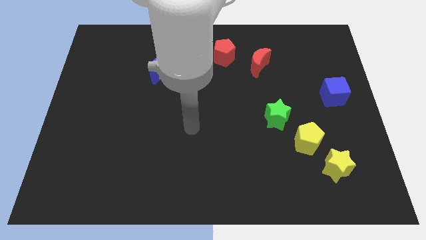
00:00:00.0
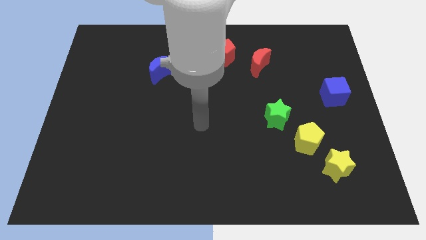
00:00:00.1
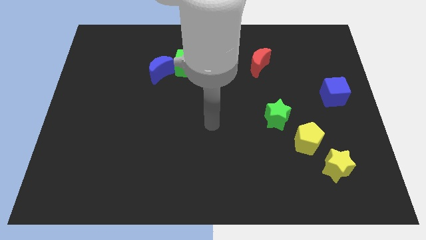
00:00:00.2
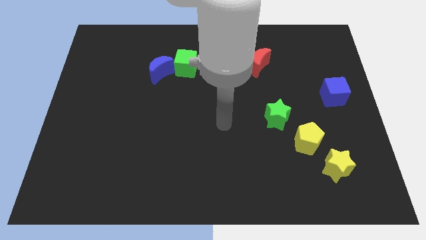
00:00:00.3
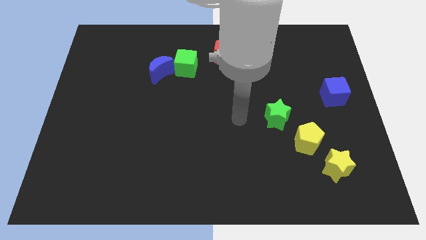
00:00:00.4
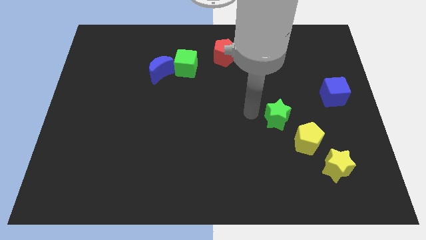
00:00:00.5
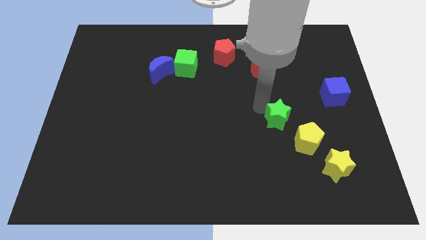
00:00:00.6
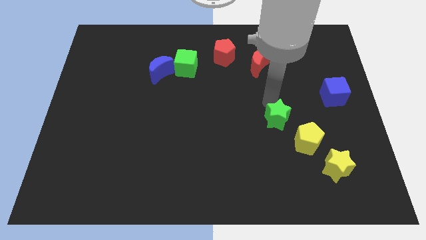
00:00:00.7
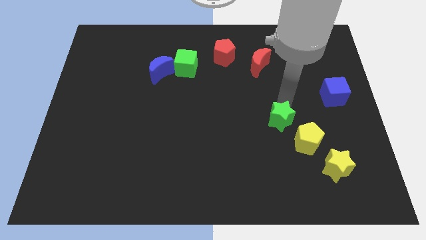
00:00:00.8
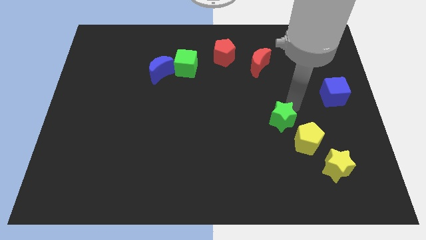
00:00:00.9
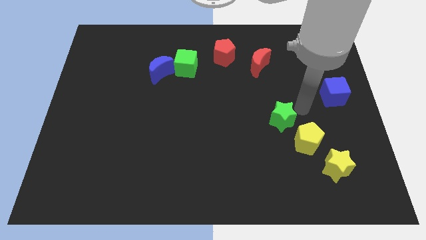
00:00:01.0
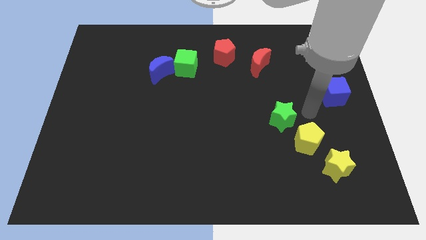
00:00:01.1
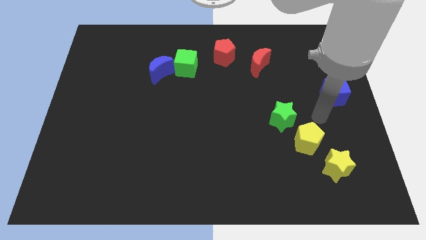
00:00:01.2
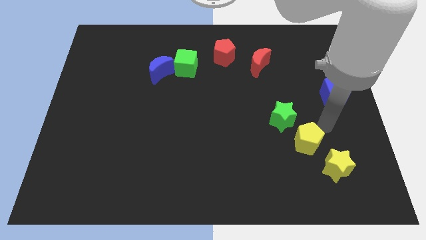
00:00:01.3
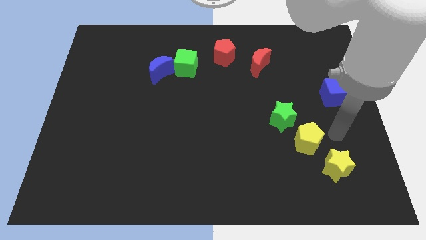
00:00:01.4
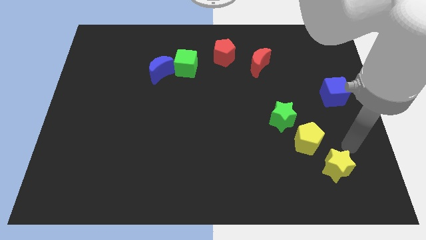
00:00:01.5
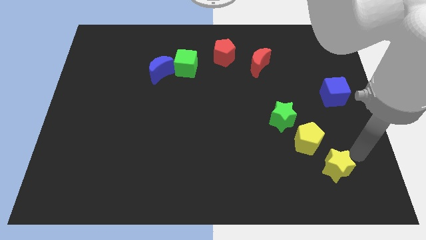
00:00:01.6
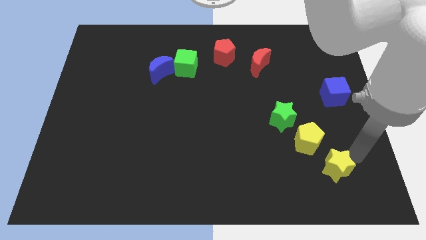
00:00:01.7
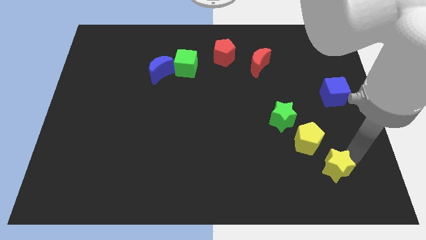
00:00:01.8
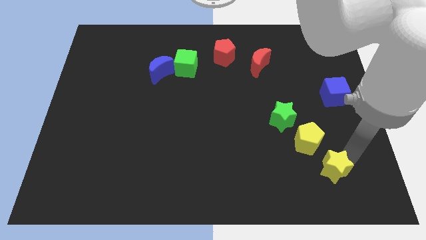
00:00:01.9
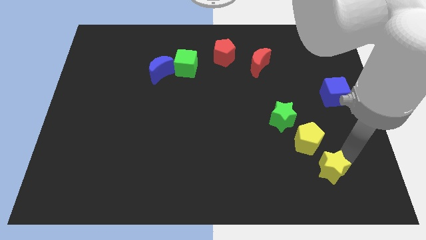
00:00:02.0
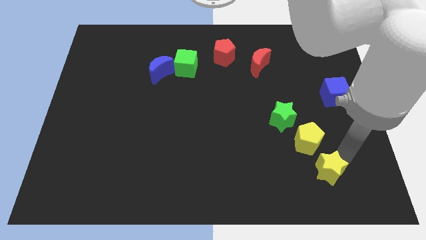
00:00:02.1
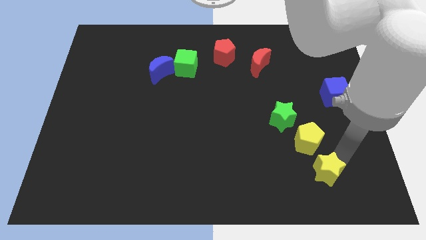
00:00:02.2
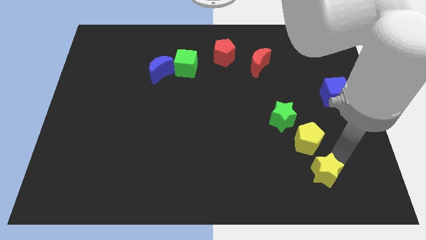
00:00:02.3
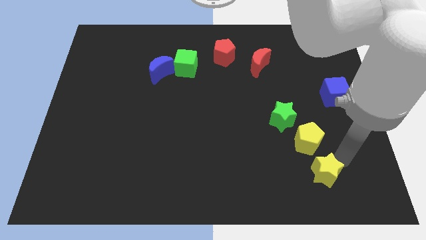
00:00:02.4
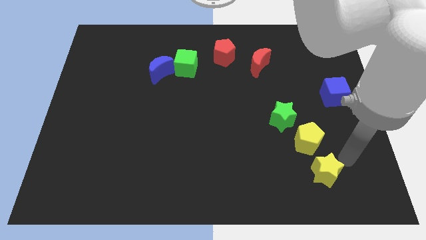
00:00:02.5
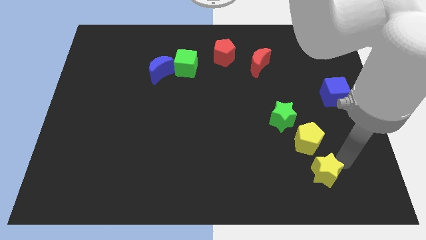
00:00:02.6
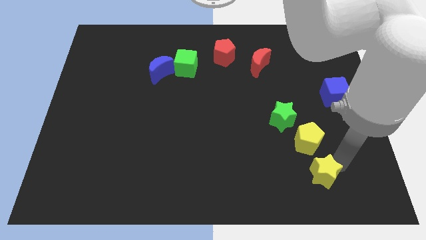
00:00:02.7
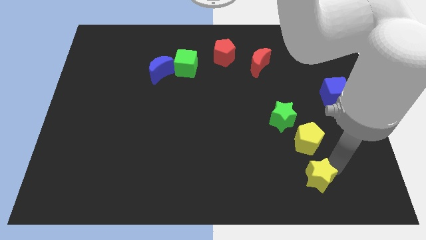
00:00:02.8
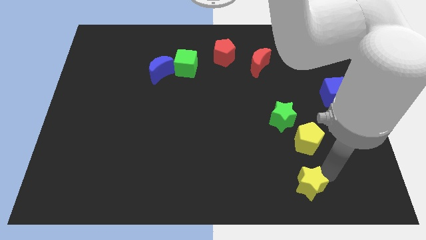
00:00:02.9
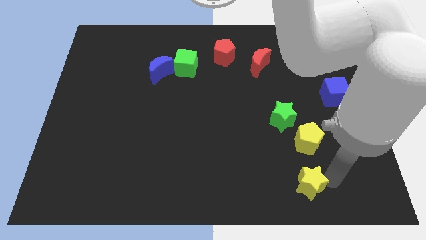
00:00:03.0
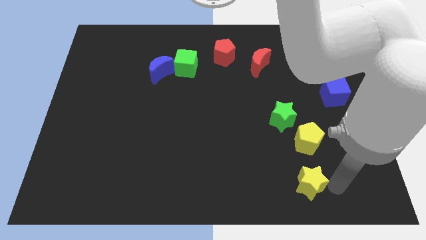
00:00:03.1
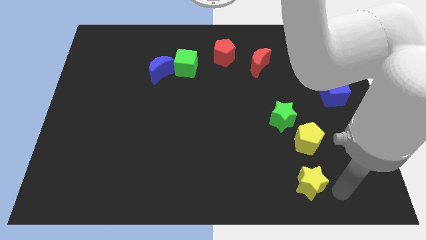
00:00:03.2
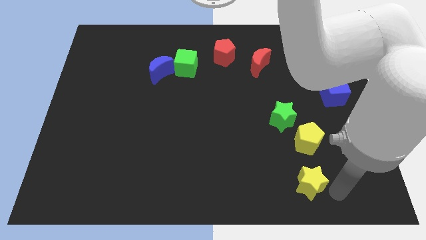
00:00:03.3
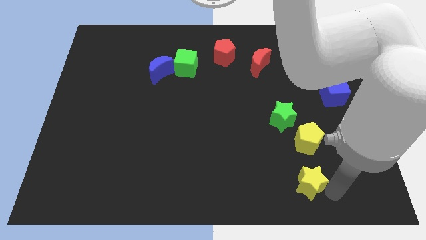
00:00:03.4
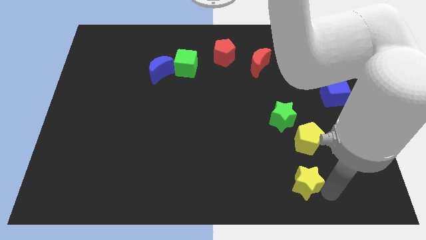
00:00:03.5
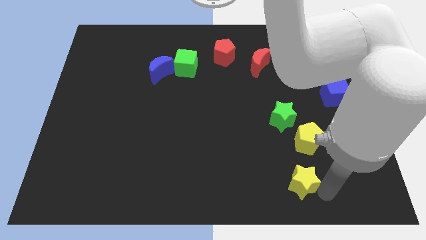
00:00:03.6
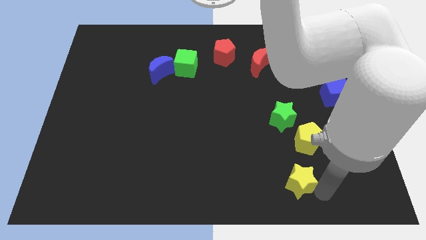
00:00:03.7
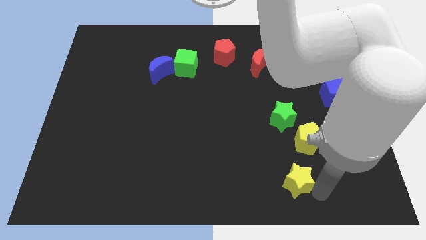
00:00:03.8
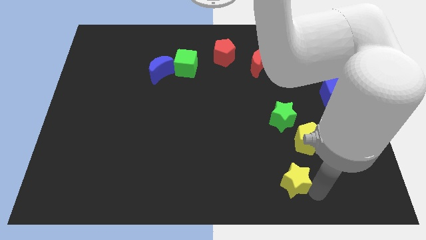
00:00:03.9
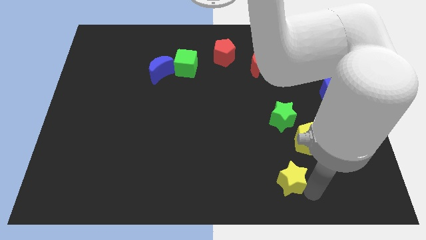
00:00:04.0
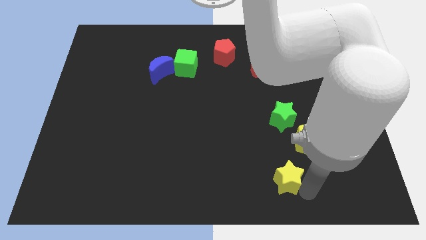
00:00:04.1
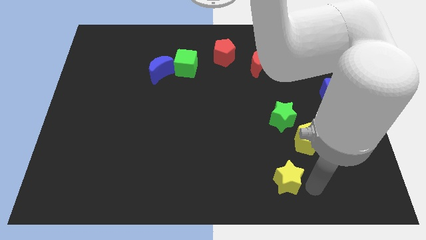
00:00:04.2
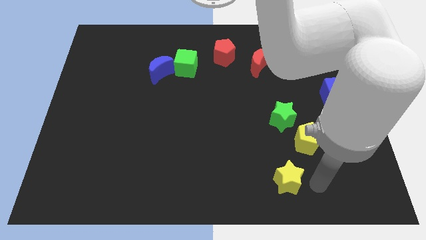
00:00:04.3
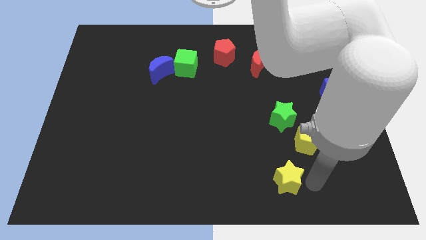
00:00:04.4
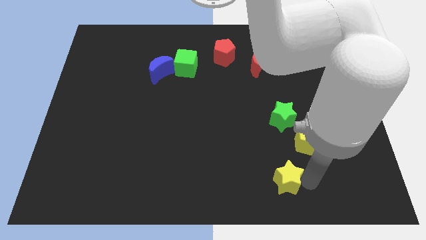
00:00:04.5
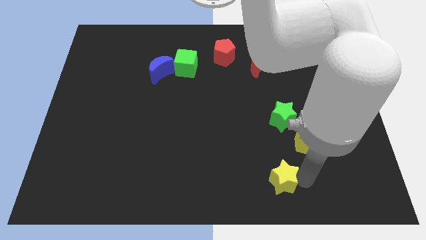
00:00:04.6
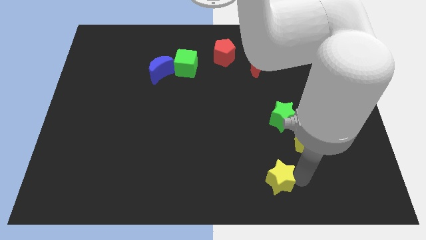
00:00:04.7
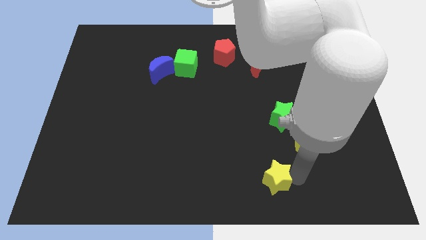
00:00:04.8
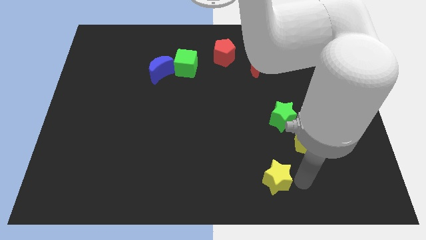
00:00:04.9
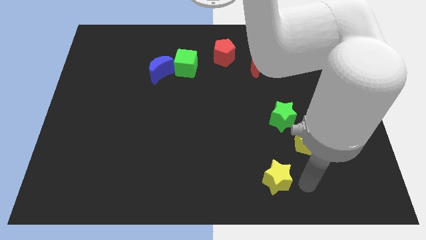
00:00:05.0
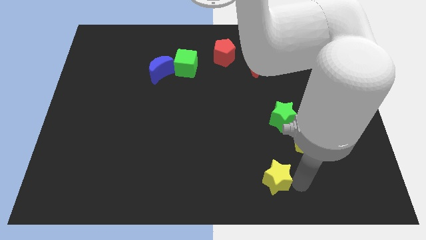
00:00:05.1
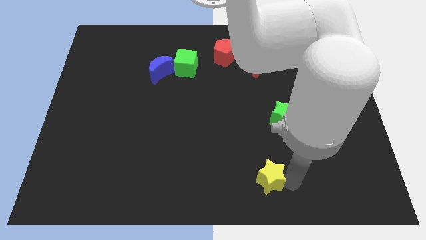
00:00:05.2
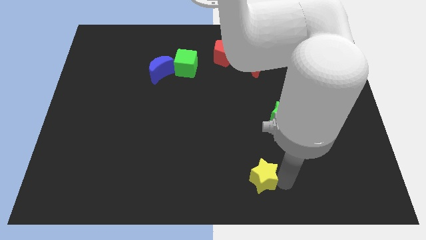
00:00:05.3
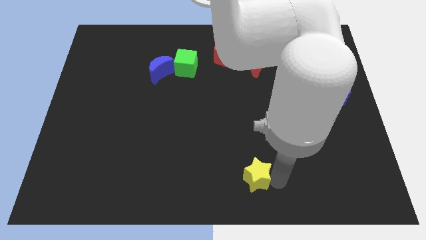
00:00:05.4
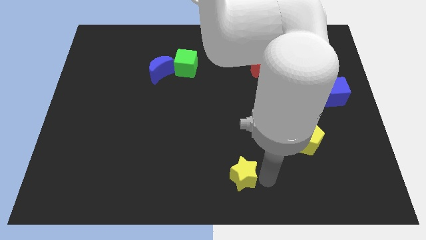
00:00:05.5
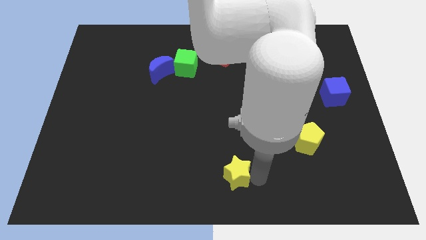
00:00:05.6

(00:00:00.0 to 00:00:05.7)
slide the yellow star left

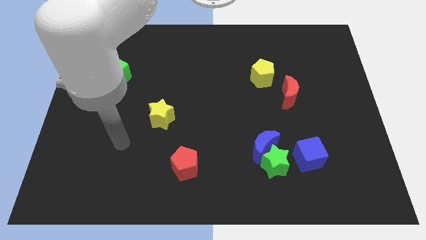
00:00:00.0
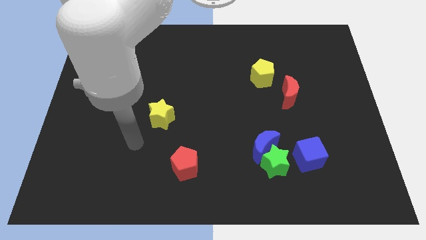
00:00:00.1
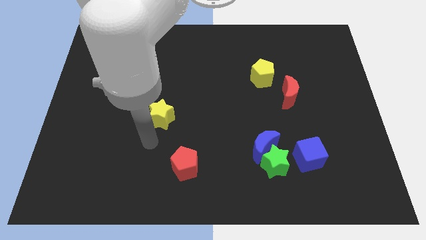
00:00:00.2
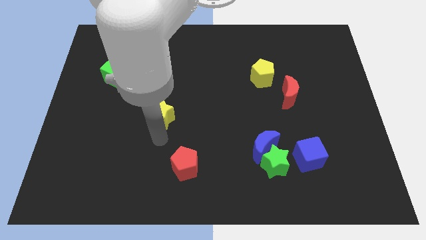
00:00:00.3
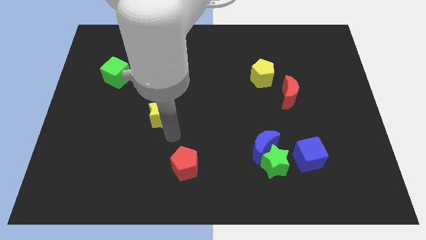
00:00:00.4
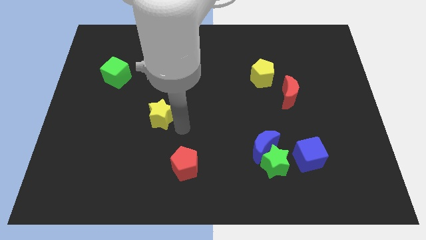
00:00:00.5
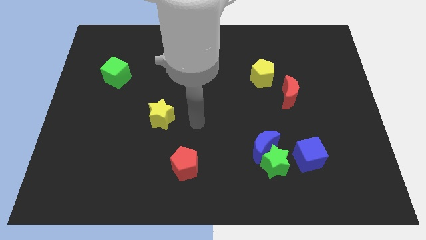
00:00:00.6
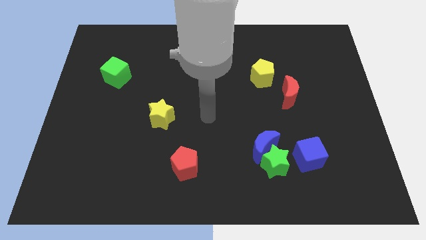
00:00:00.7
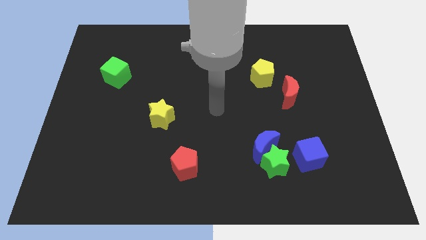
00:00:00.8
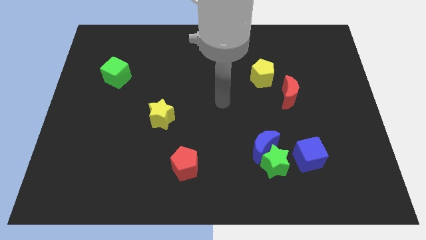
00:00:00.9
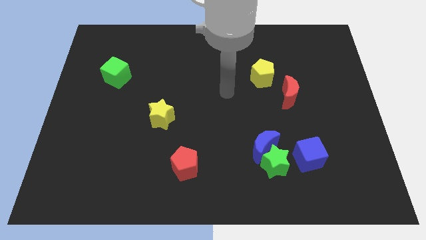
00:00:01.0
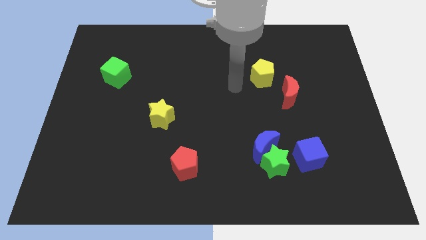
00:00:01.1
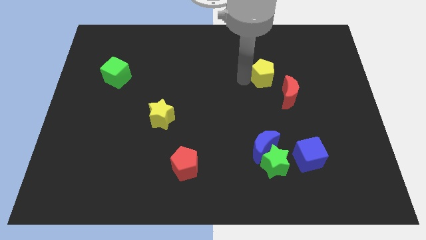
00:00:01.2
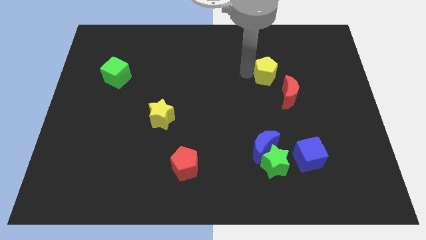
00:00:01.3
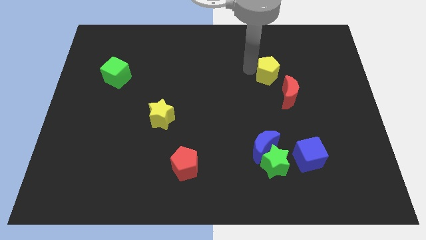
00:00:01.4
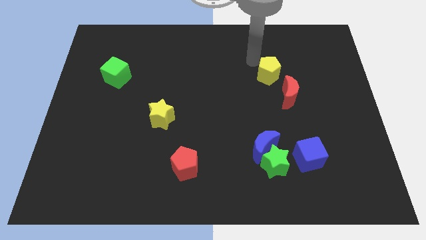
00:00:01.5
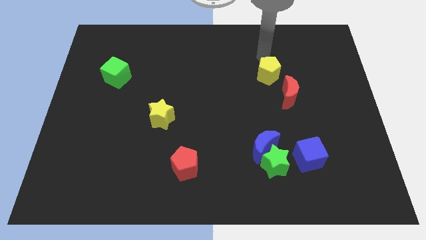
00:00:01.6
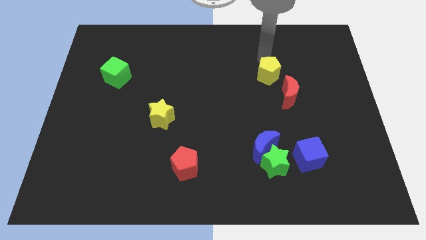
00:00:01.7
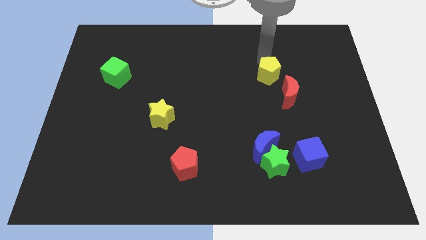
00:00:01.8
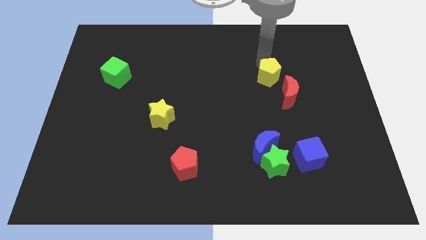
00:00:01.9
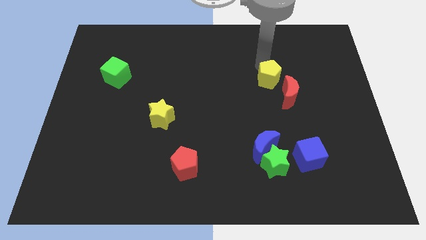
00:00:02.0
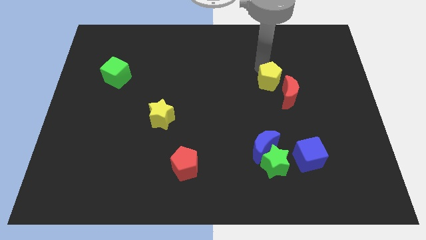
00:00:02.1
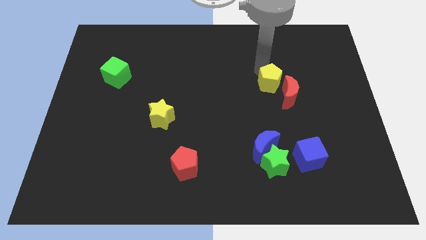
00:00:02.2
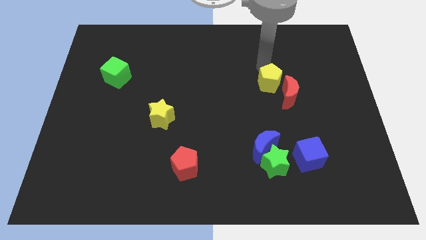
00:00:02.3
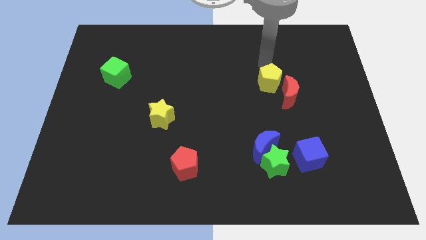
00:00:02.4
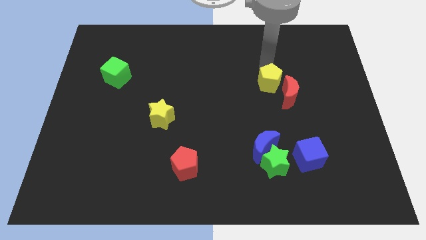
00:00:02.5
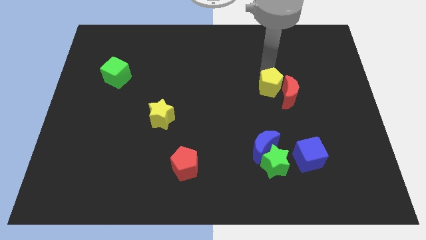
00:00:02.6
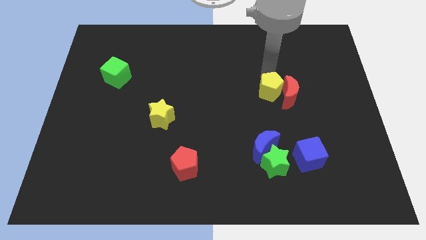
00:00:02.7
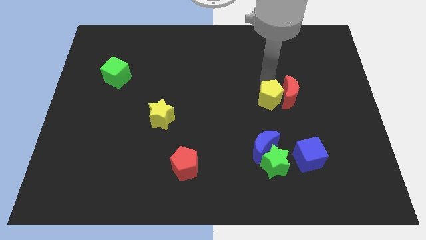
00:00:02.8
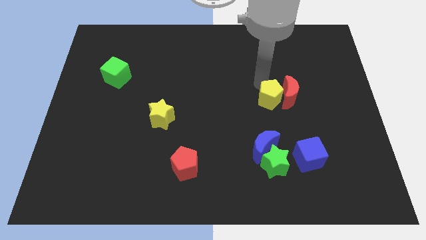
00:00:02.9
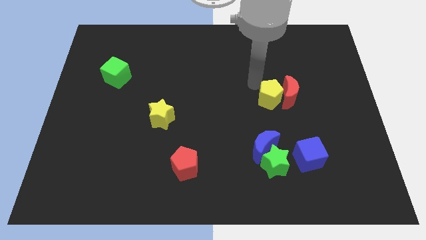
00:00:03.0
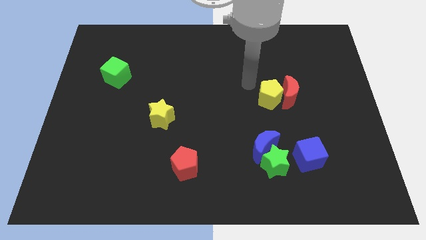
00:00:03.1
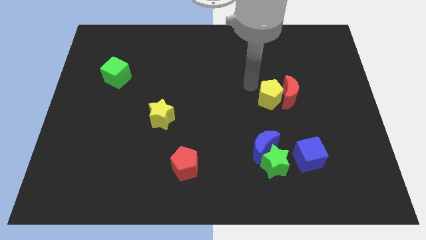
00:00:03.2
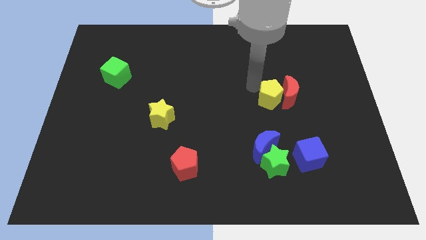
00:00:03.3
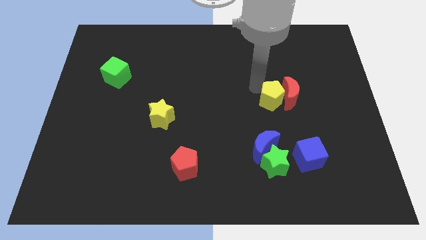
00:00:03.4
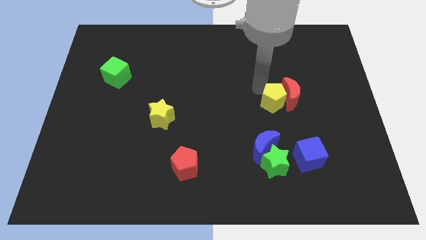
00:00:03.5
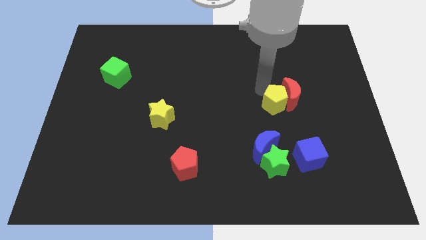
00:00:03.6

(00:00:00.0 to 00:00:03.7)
push the yellow pentagon a little down and then to the right
